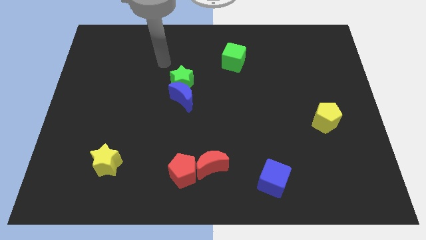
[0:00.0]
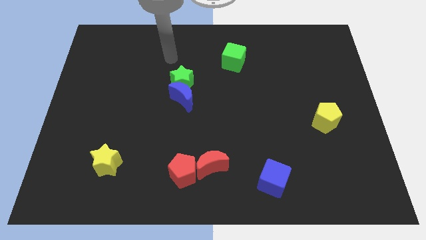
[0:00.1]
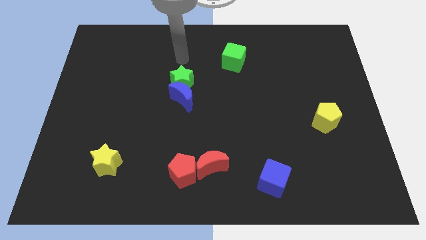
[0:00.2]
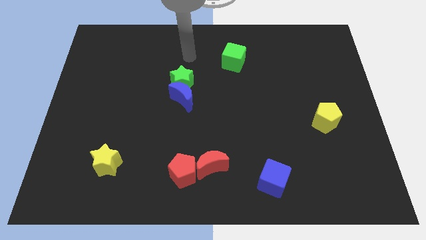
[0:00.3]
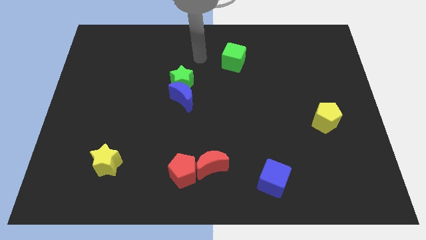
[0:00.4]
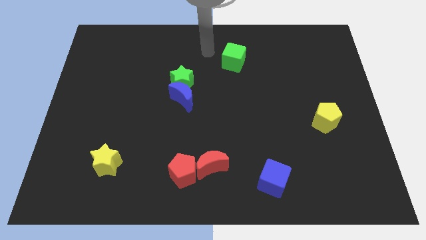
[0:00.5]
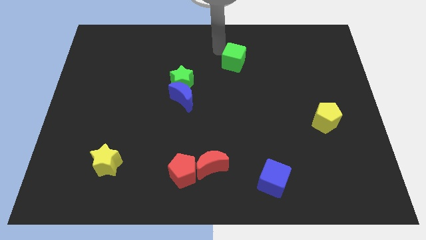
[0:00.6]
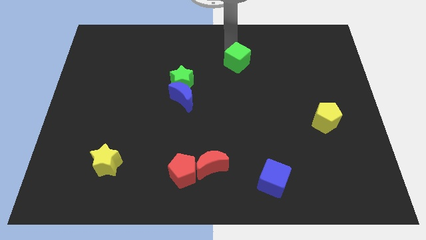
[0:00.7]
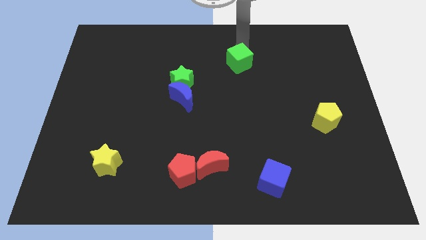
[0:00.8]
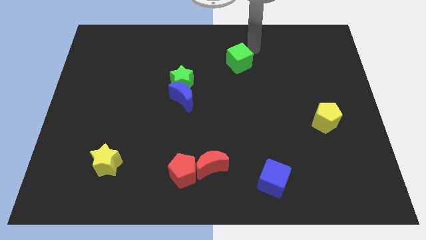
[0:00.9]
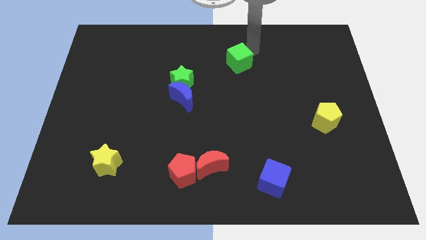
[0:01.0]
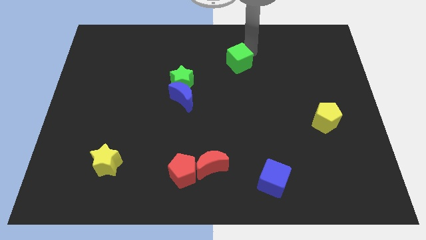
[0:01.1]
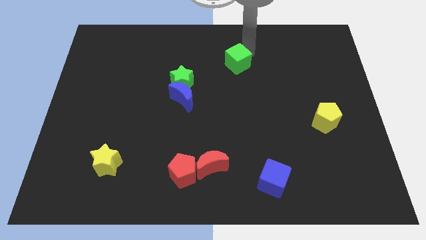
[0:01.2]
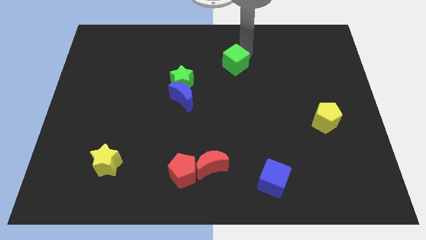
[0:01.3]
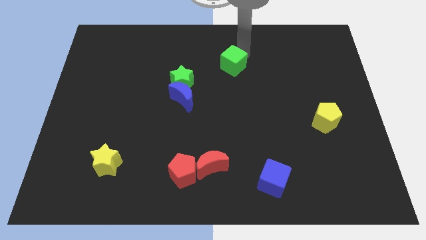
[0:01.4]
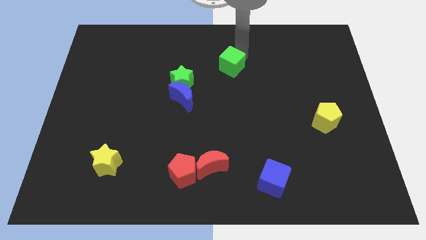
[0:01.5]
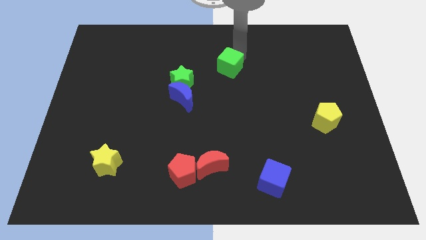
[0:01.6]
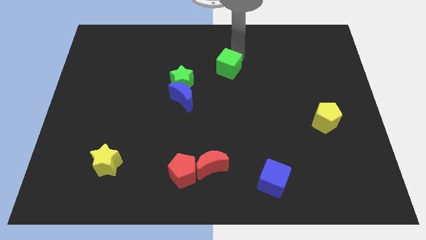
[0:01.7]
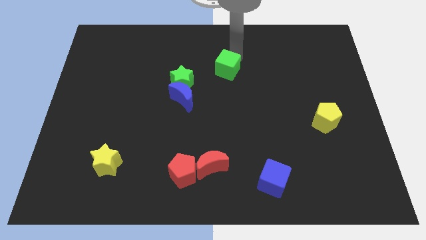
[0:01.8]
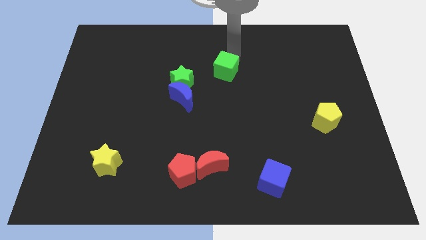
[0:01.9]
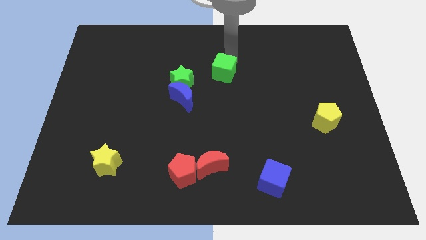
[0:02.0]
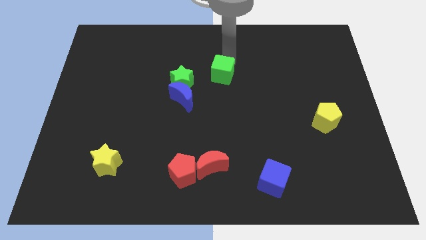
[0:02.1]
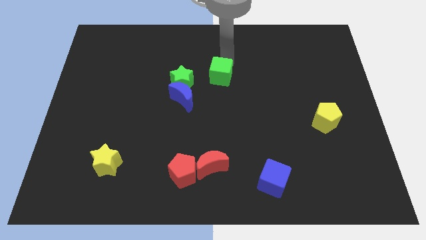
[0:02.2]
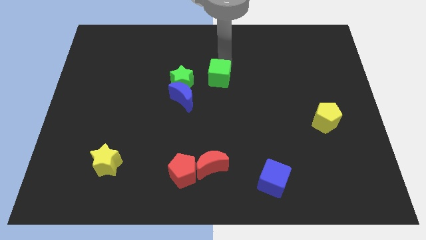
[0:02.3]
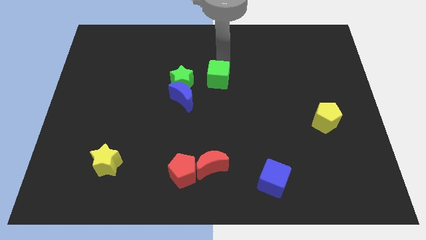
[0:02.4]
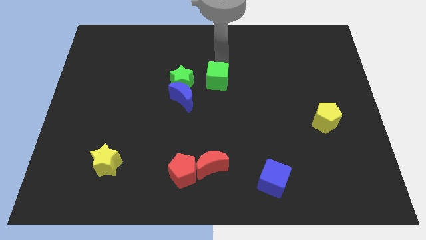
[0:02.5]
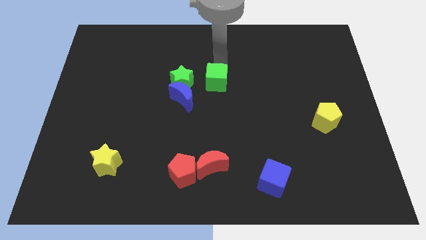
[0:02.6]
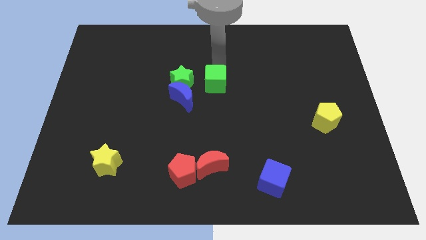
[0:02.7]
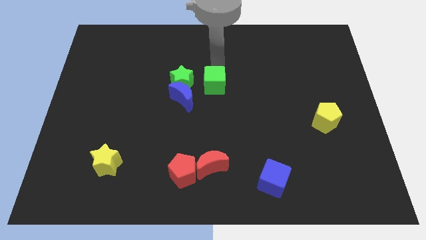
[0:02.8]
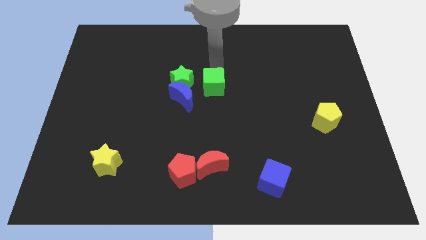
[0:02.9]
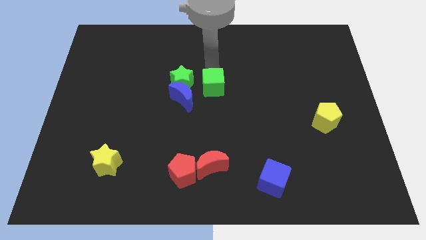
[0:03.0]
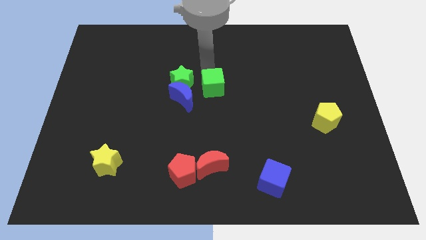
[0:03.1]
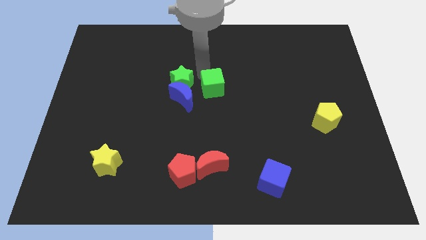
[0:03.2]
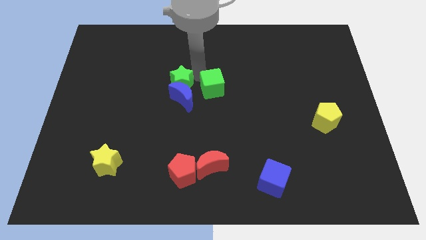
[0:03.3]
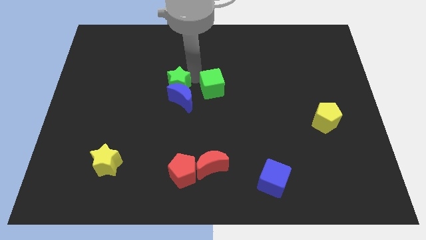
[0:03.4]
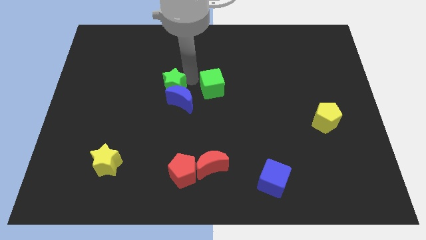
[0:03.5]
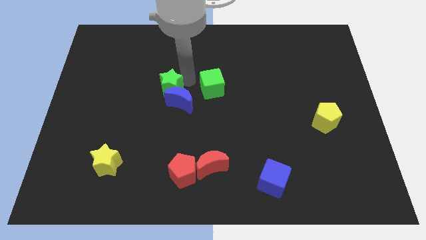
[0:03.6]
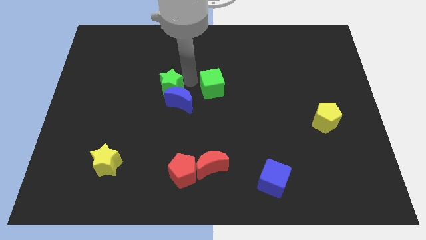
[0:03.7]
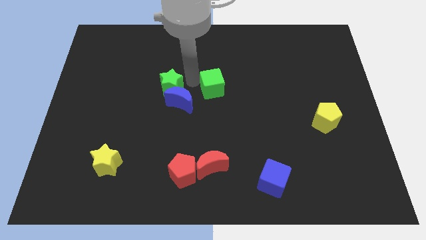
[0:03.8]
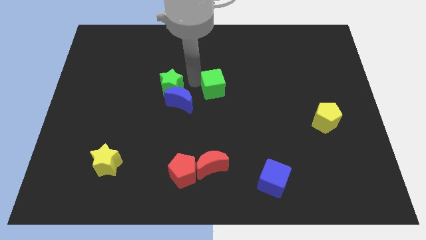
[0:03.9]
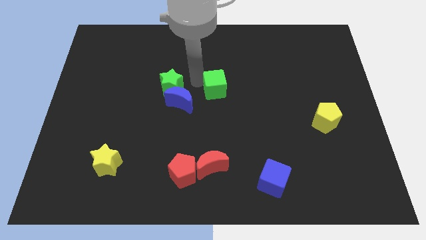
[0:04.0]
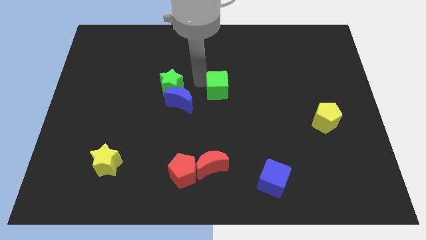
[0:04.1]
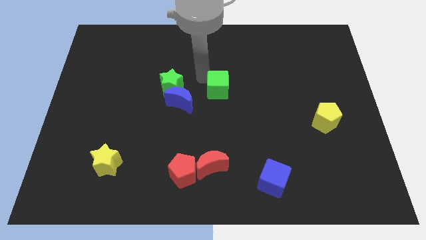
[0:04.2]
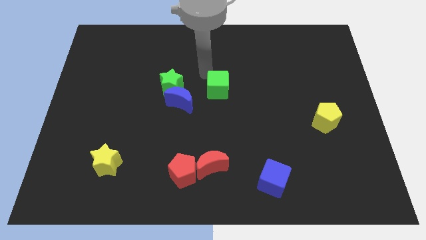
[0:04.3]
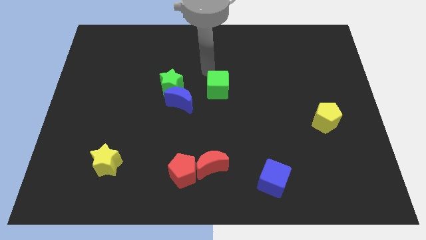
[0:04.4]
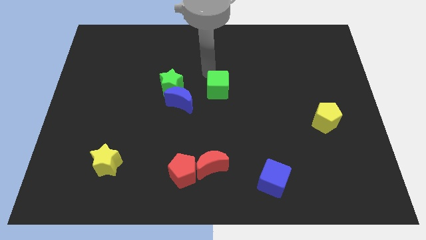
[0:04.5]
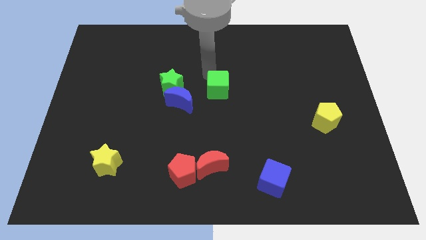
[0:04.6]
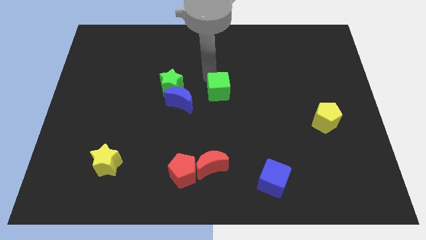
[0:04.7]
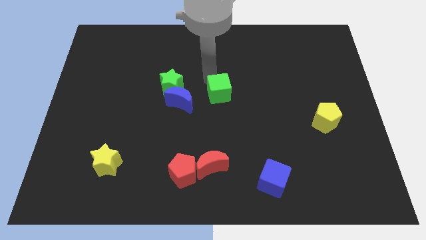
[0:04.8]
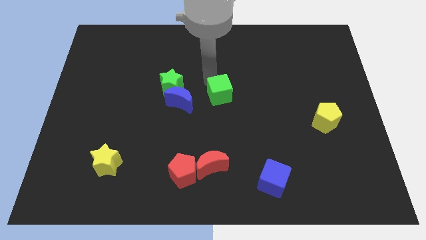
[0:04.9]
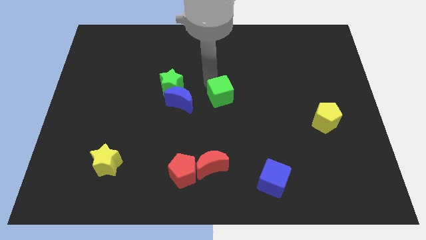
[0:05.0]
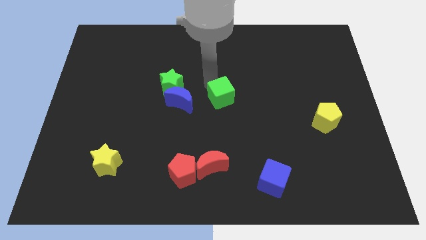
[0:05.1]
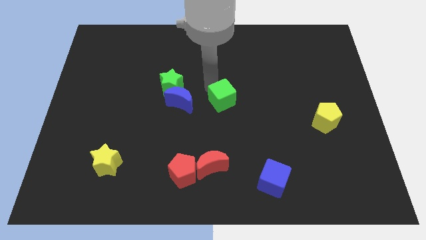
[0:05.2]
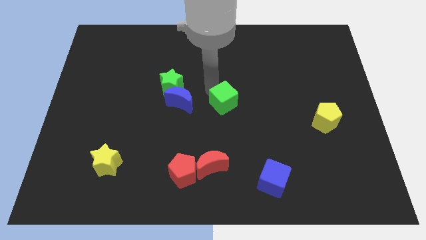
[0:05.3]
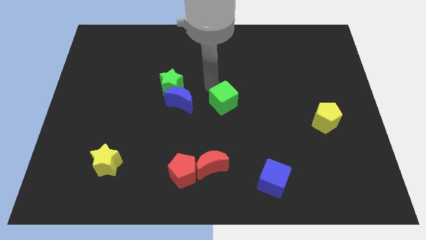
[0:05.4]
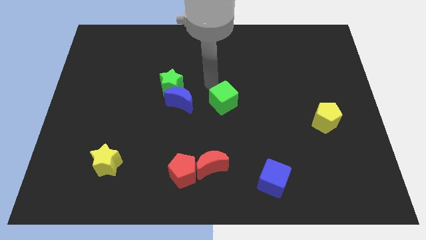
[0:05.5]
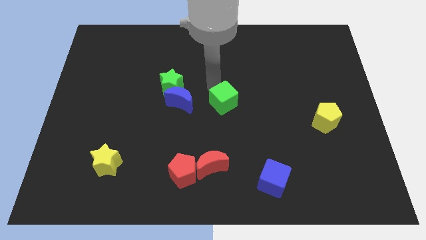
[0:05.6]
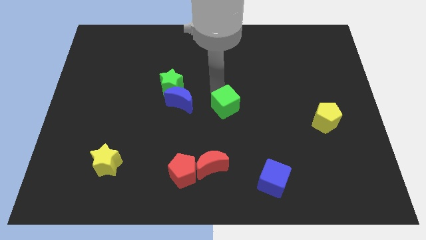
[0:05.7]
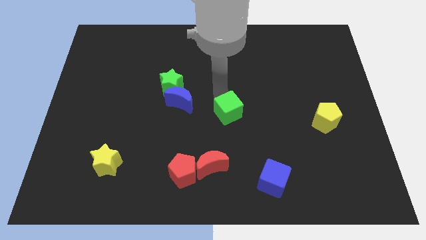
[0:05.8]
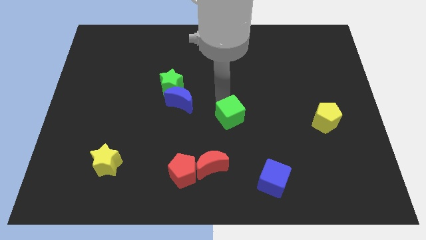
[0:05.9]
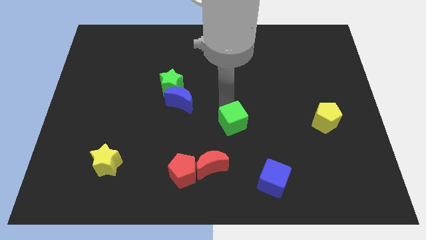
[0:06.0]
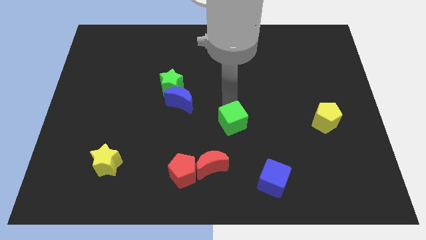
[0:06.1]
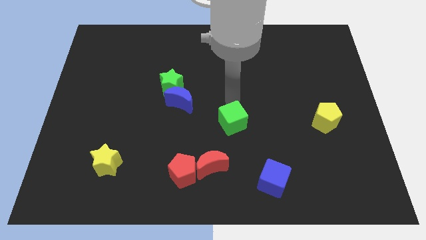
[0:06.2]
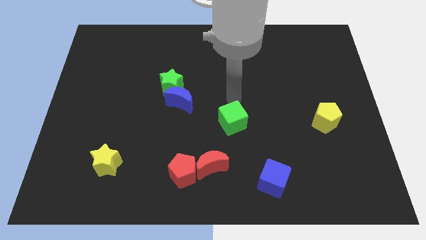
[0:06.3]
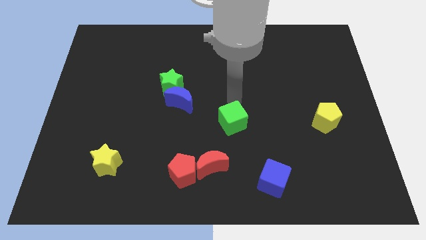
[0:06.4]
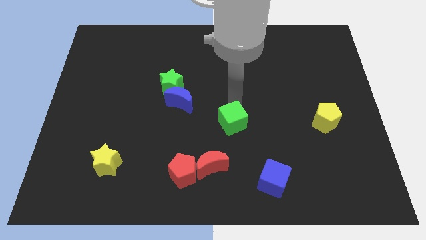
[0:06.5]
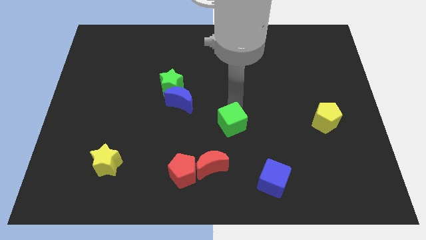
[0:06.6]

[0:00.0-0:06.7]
slide the green cube down

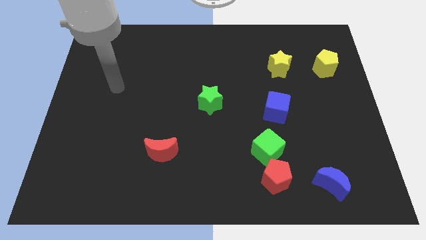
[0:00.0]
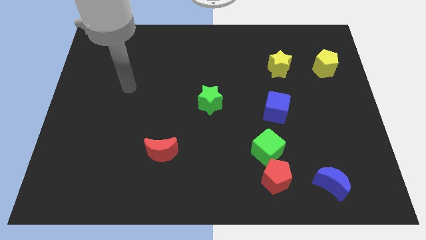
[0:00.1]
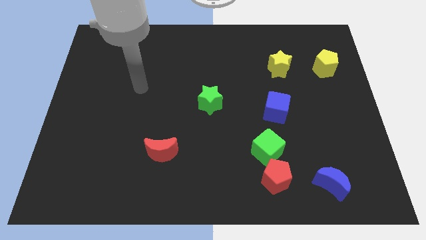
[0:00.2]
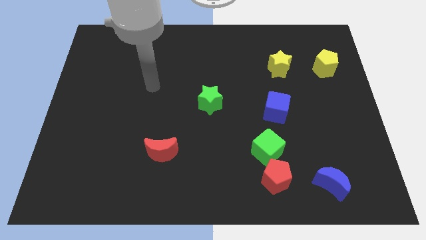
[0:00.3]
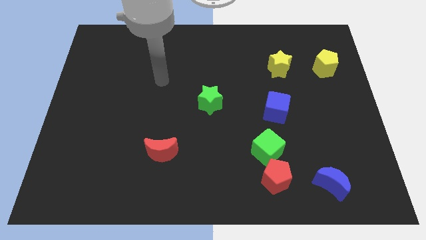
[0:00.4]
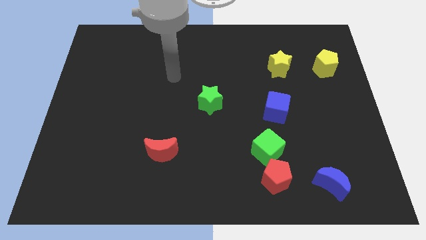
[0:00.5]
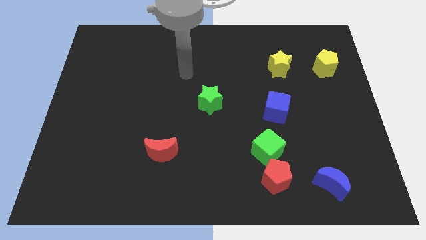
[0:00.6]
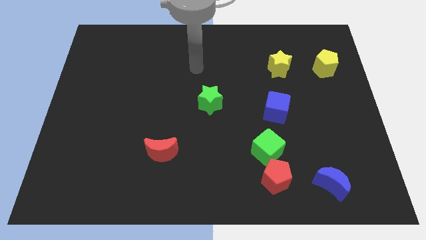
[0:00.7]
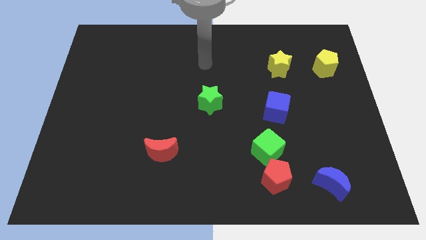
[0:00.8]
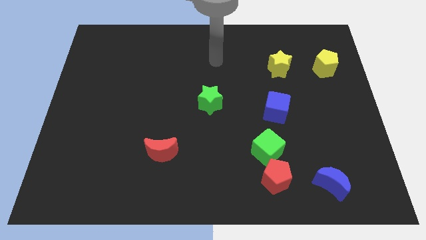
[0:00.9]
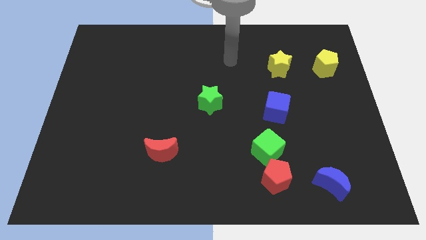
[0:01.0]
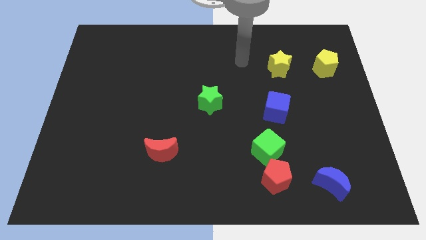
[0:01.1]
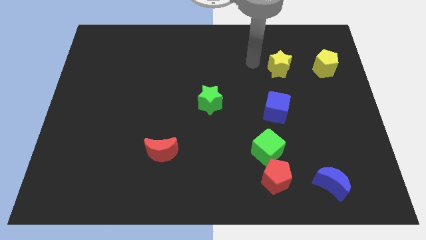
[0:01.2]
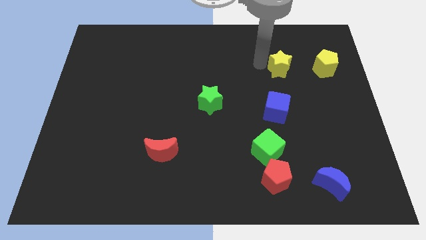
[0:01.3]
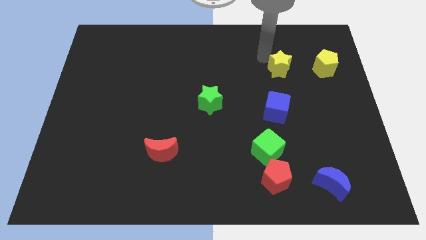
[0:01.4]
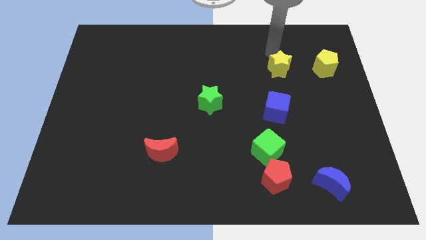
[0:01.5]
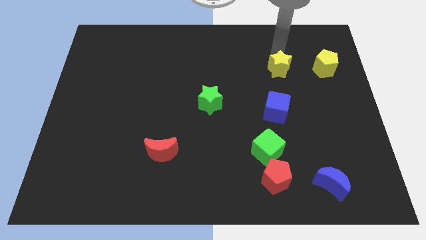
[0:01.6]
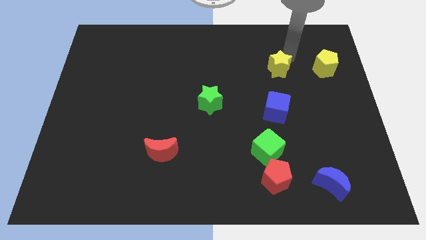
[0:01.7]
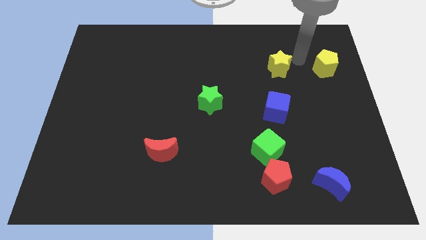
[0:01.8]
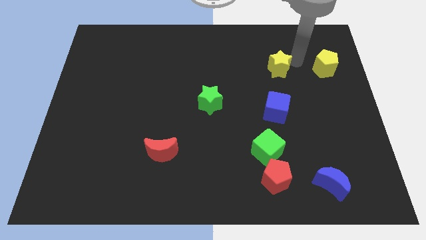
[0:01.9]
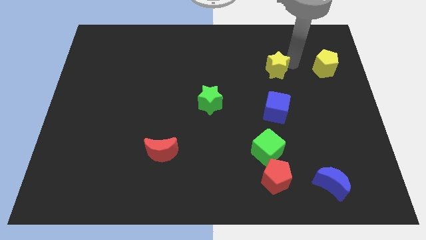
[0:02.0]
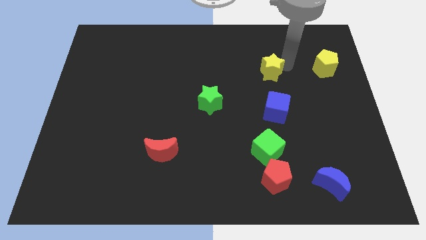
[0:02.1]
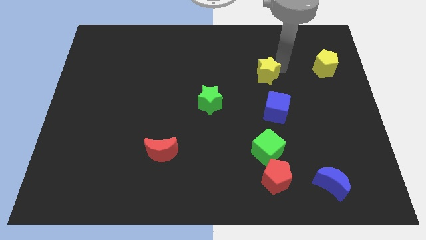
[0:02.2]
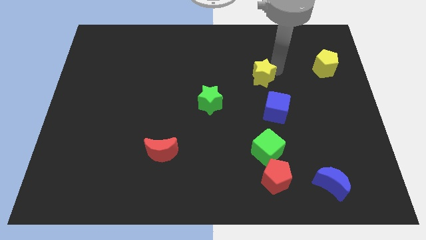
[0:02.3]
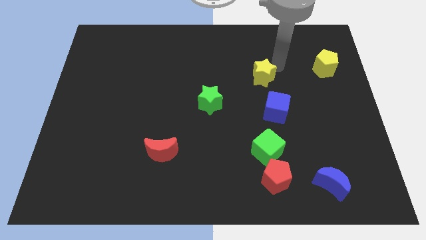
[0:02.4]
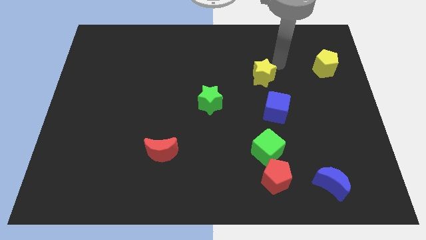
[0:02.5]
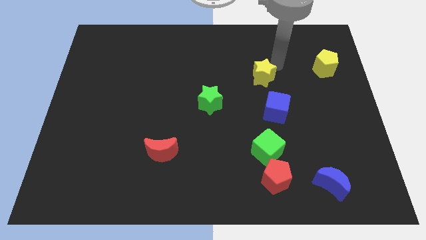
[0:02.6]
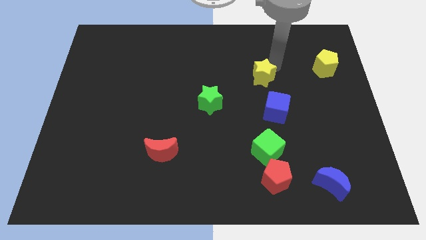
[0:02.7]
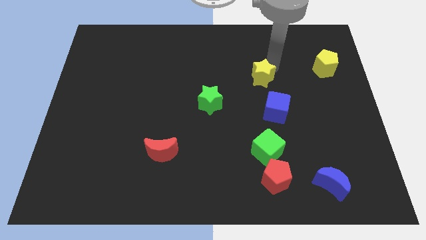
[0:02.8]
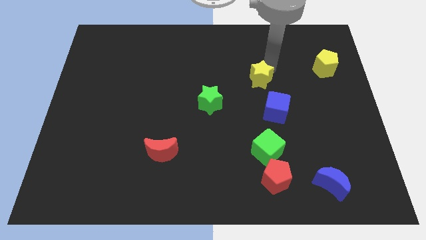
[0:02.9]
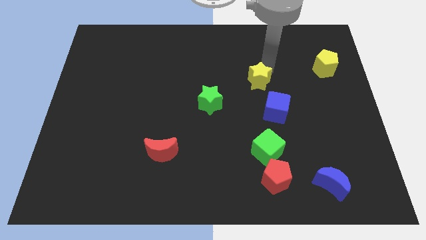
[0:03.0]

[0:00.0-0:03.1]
slightly move the yellow star downwards and left
